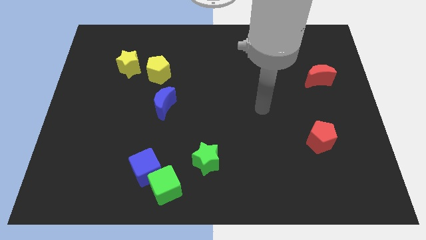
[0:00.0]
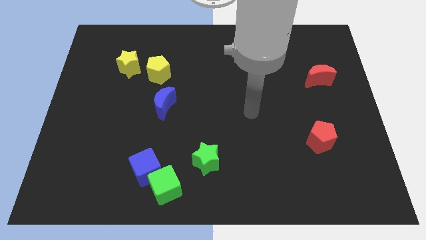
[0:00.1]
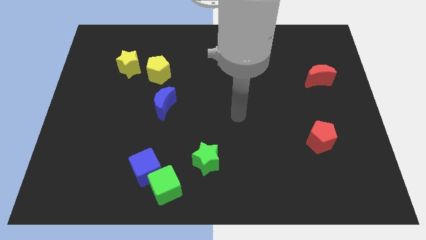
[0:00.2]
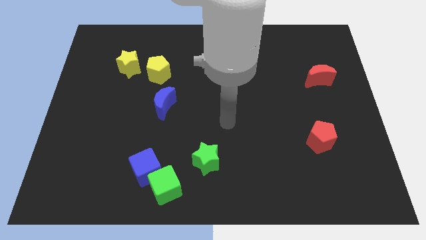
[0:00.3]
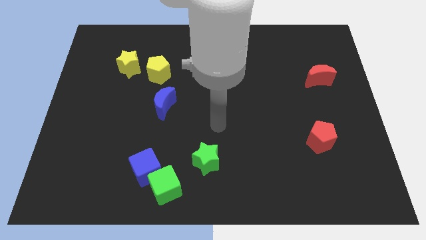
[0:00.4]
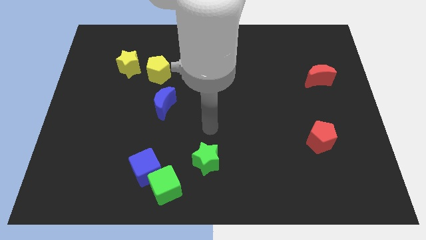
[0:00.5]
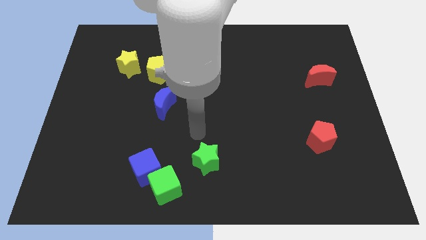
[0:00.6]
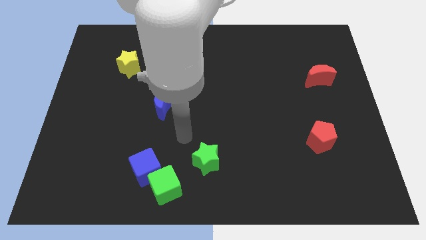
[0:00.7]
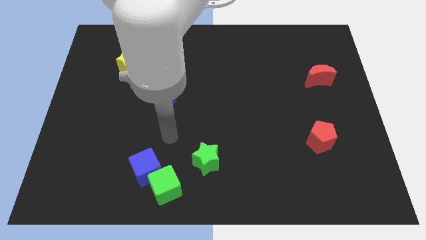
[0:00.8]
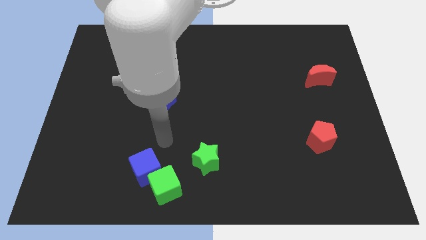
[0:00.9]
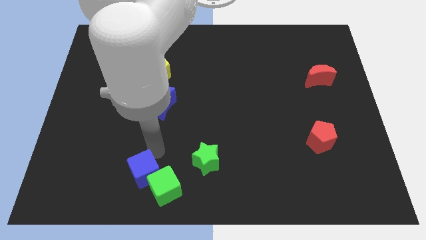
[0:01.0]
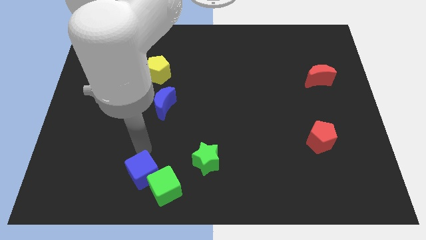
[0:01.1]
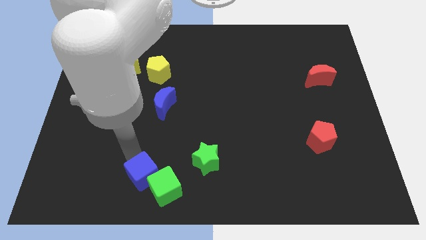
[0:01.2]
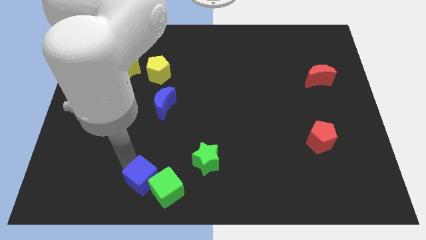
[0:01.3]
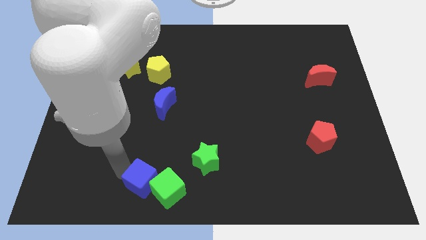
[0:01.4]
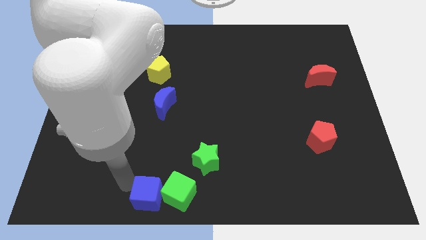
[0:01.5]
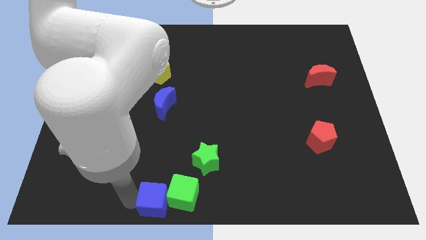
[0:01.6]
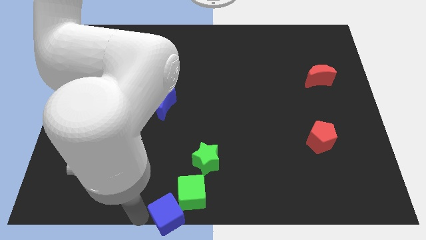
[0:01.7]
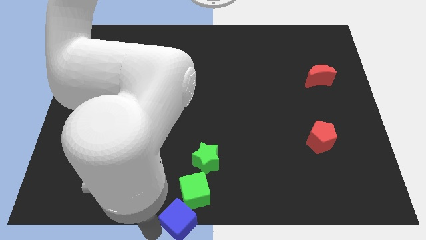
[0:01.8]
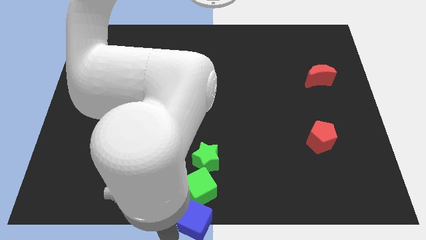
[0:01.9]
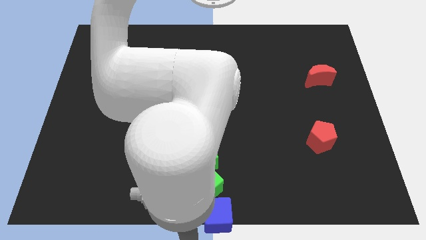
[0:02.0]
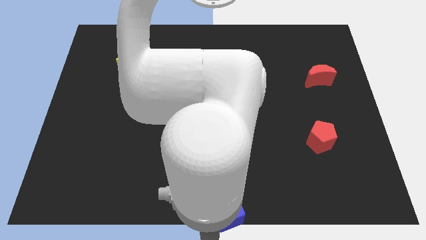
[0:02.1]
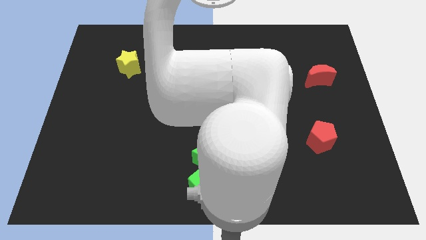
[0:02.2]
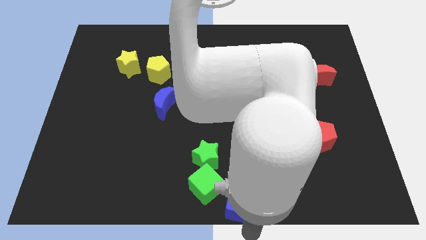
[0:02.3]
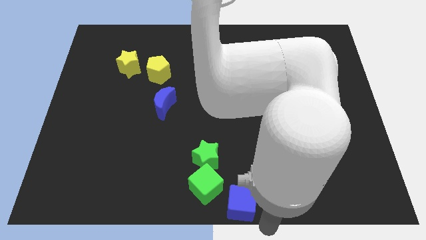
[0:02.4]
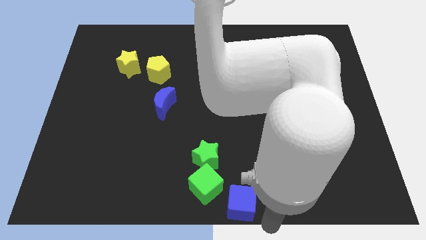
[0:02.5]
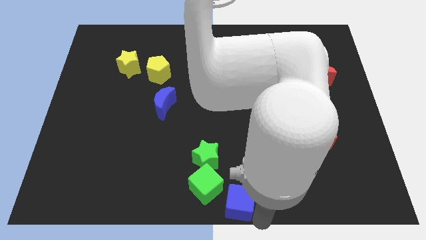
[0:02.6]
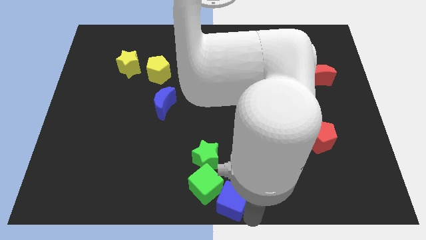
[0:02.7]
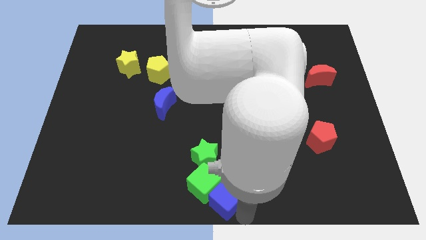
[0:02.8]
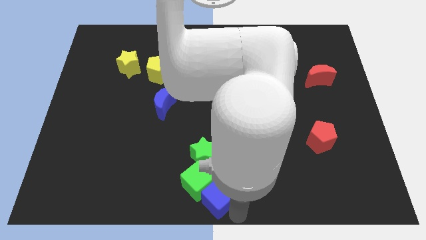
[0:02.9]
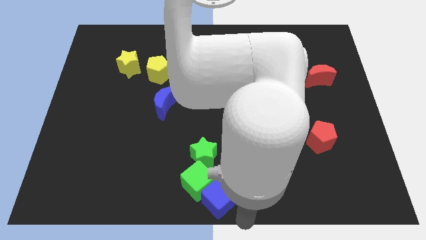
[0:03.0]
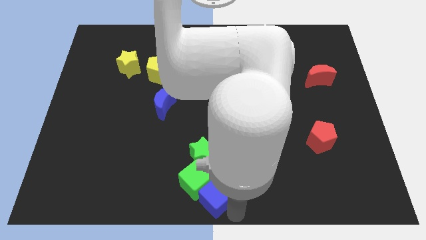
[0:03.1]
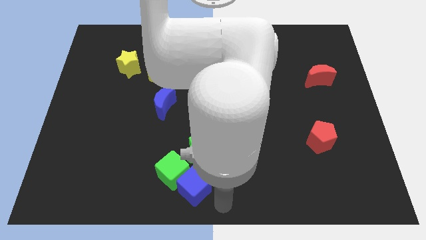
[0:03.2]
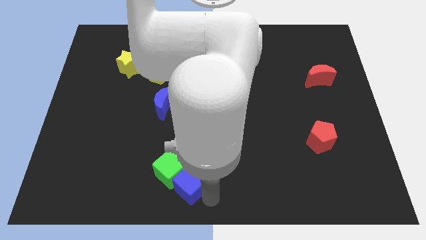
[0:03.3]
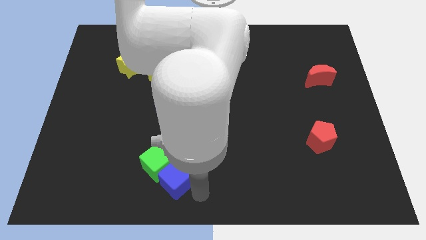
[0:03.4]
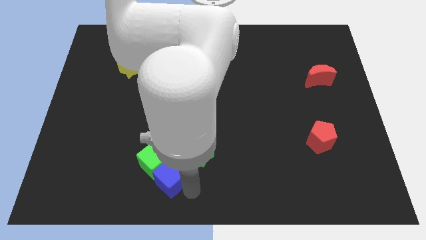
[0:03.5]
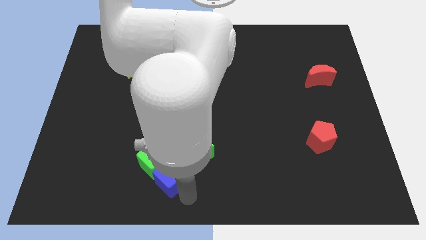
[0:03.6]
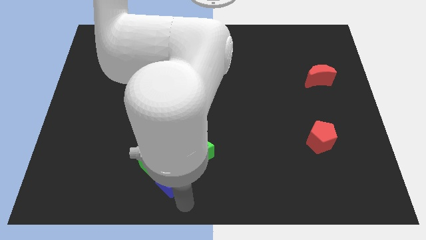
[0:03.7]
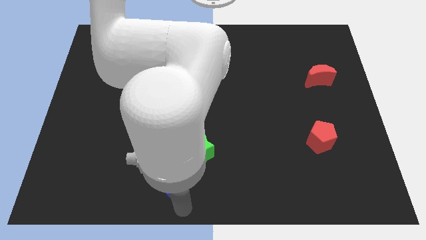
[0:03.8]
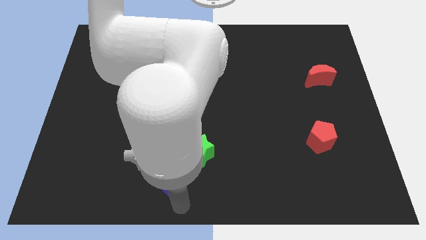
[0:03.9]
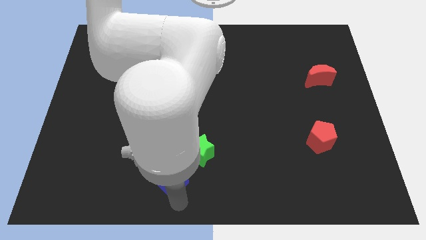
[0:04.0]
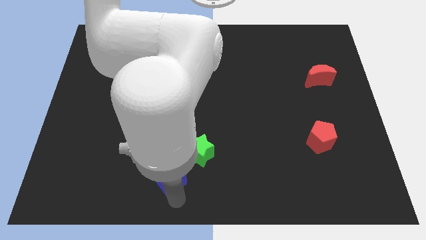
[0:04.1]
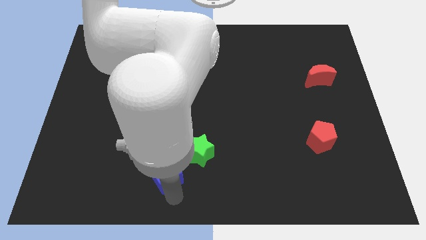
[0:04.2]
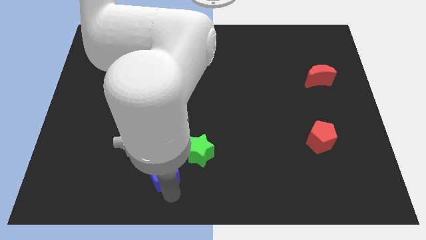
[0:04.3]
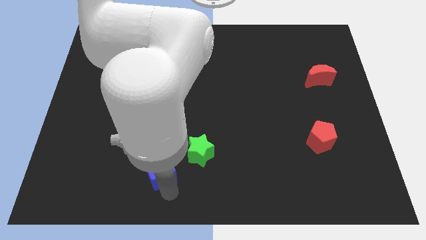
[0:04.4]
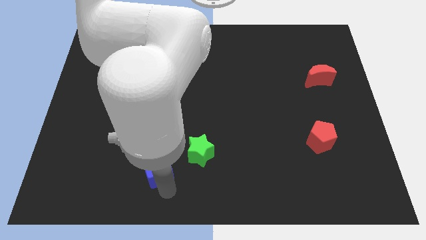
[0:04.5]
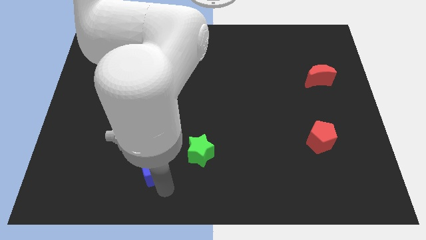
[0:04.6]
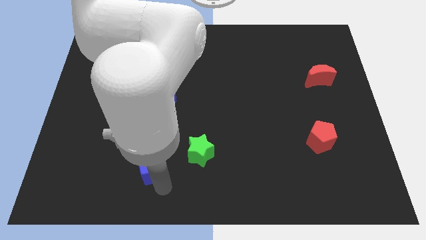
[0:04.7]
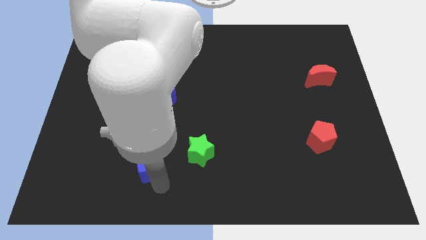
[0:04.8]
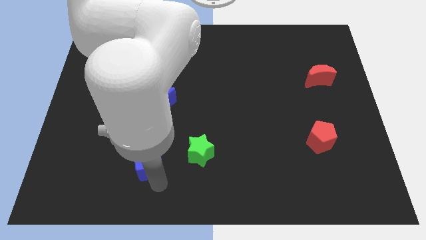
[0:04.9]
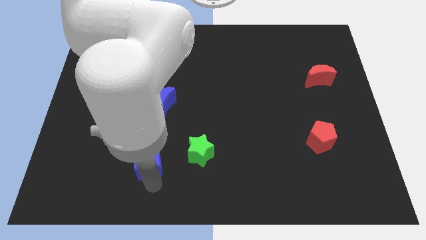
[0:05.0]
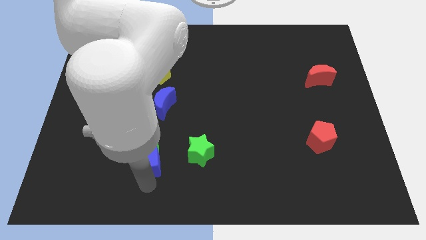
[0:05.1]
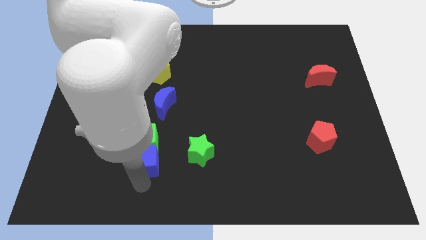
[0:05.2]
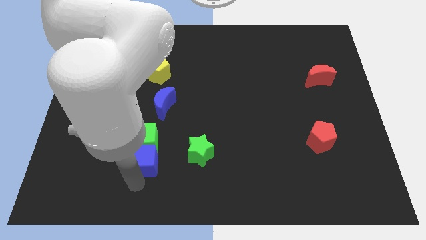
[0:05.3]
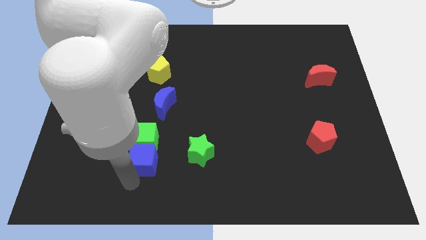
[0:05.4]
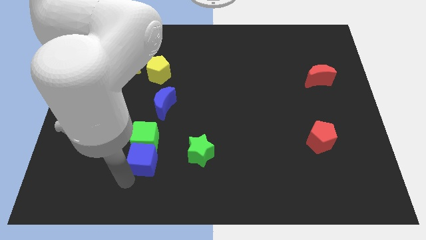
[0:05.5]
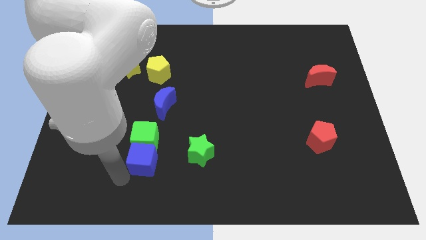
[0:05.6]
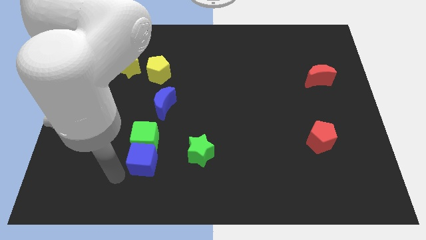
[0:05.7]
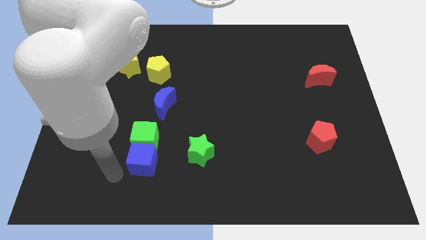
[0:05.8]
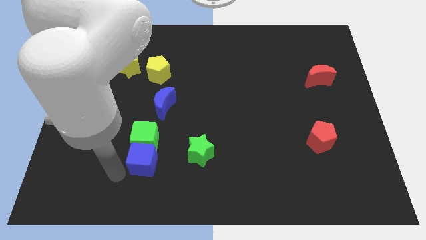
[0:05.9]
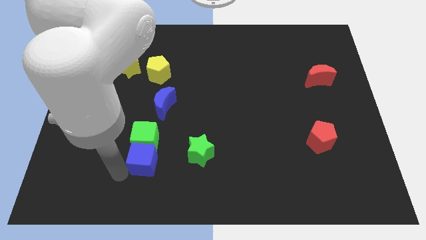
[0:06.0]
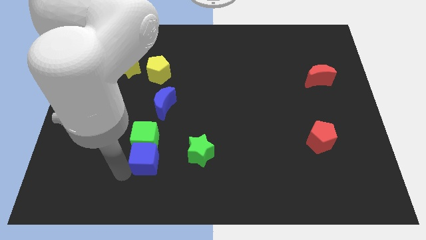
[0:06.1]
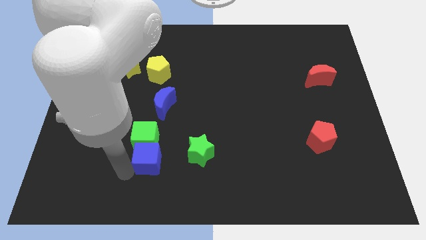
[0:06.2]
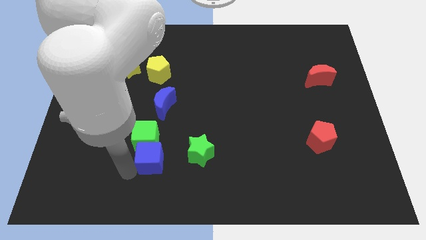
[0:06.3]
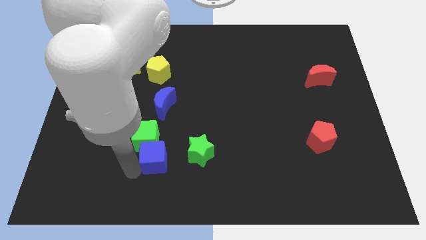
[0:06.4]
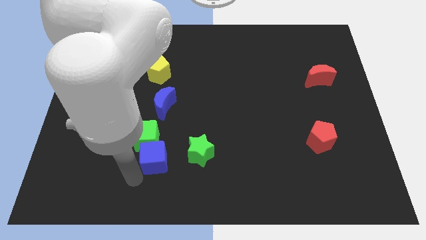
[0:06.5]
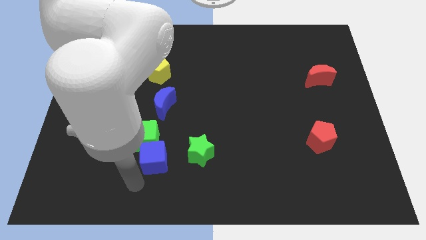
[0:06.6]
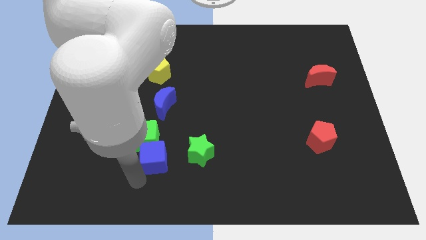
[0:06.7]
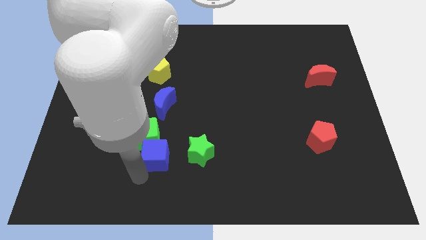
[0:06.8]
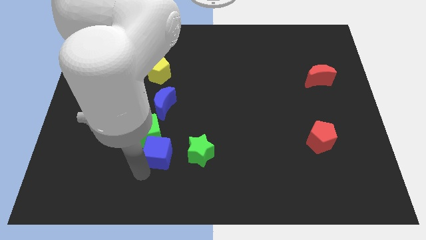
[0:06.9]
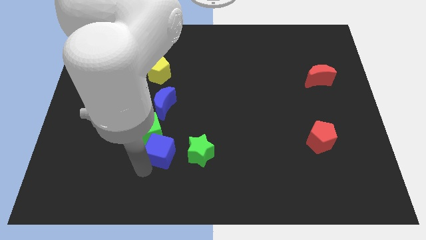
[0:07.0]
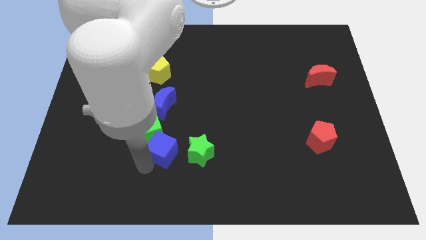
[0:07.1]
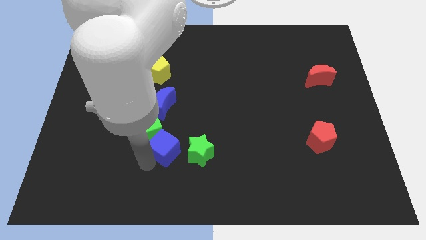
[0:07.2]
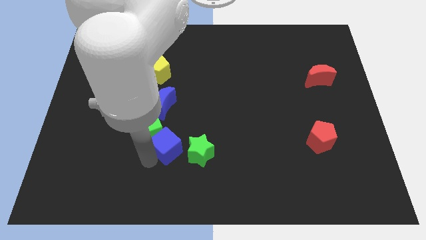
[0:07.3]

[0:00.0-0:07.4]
put the blue cube to the top left of the green star
